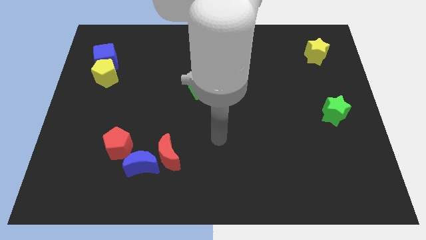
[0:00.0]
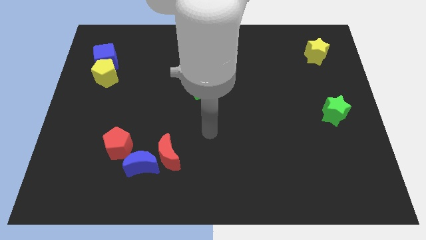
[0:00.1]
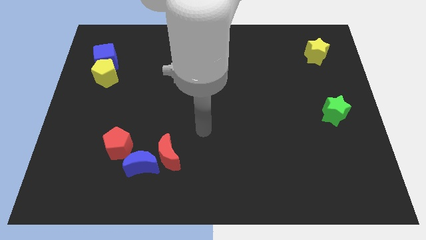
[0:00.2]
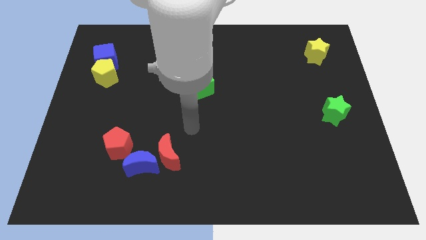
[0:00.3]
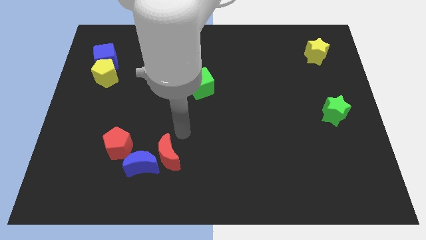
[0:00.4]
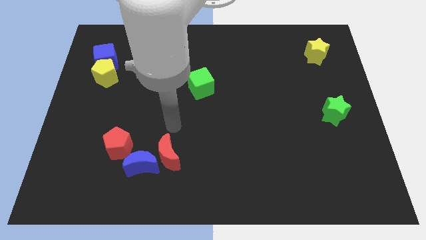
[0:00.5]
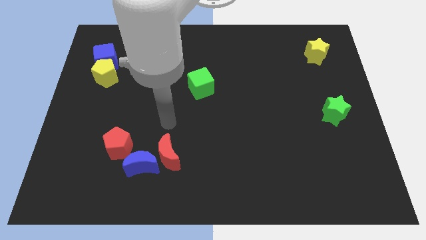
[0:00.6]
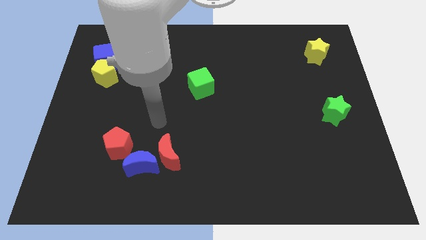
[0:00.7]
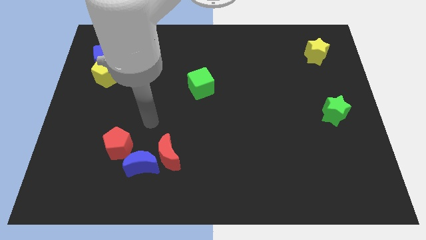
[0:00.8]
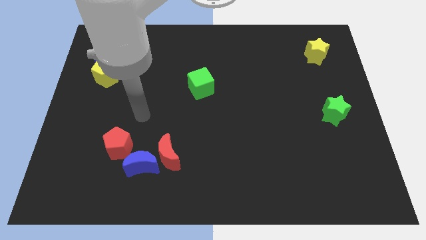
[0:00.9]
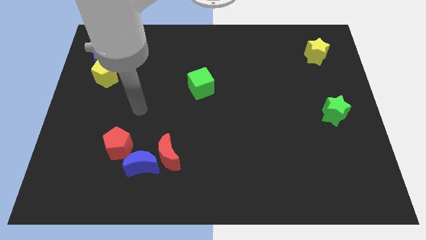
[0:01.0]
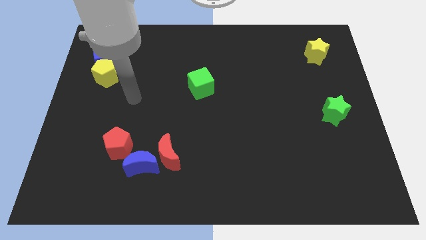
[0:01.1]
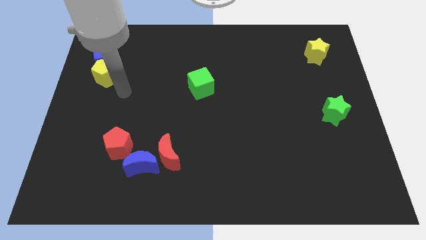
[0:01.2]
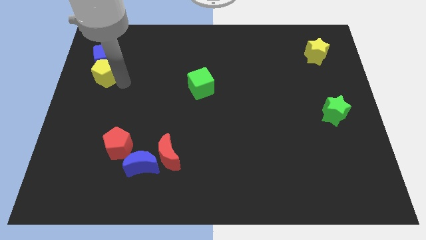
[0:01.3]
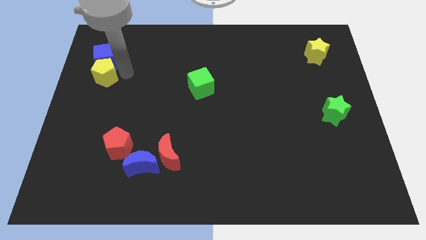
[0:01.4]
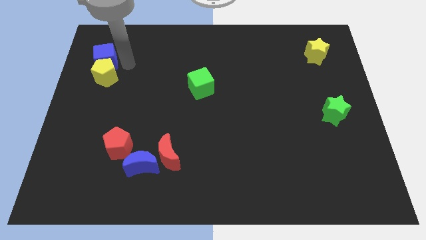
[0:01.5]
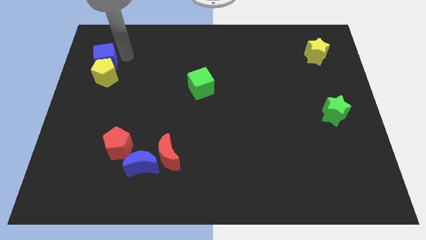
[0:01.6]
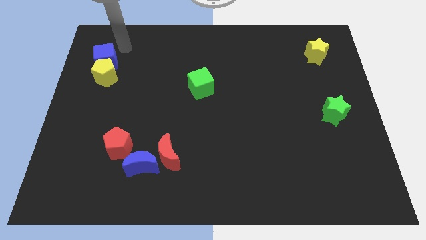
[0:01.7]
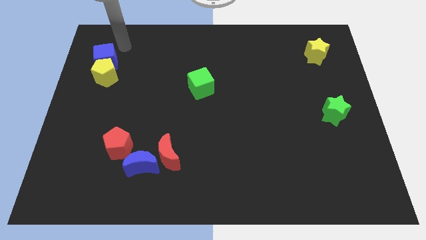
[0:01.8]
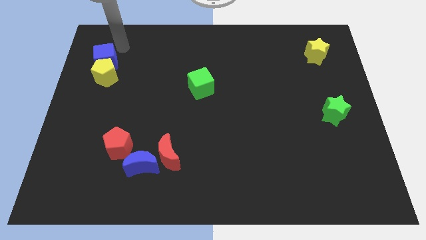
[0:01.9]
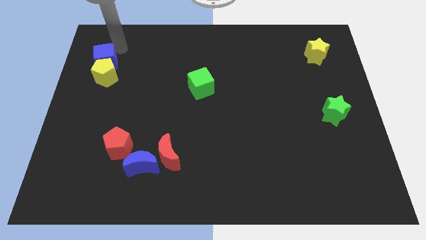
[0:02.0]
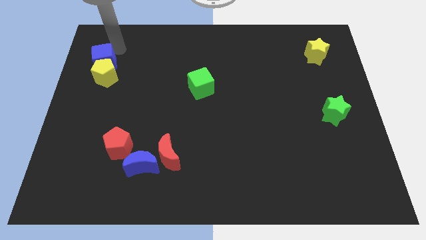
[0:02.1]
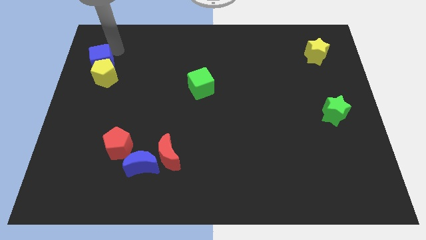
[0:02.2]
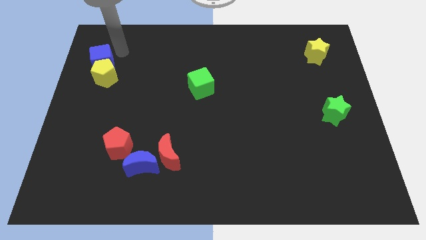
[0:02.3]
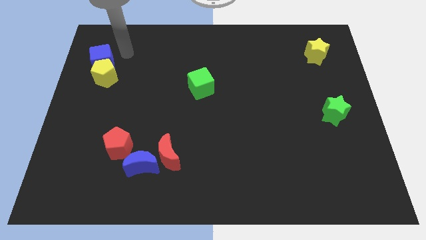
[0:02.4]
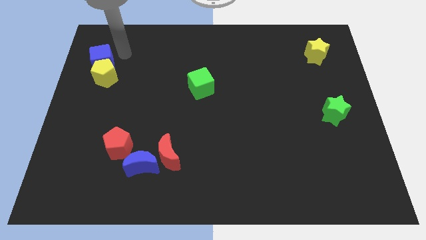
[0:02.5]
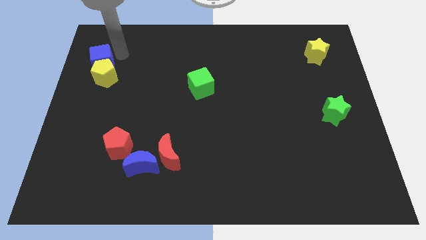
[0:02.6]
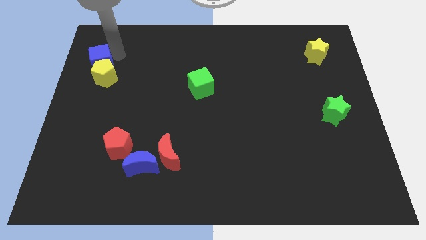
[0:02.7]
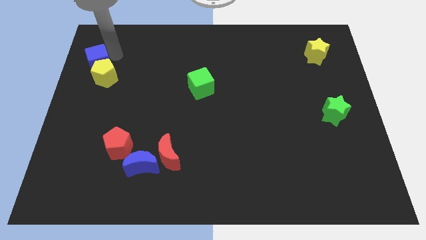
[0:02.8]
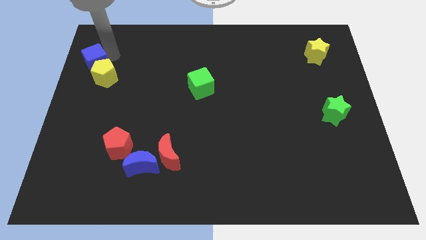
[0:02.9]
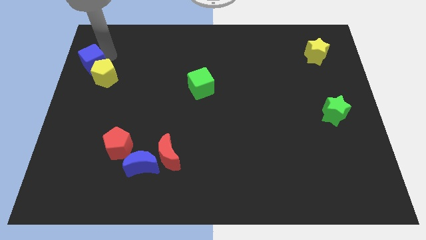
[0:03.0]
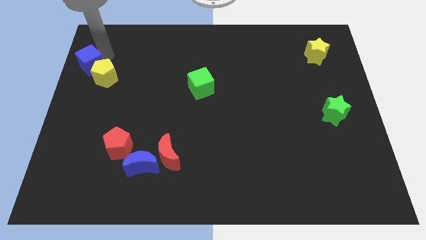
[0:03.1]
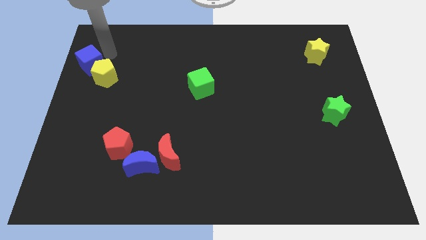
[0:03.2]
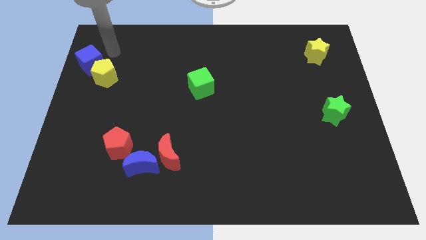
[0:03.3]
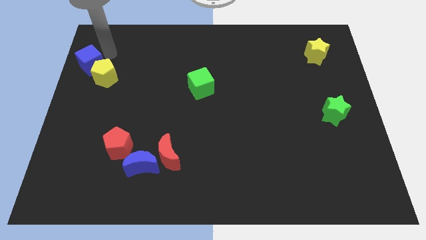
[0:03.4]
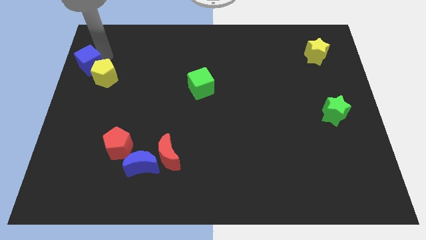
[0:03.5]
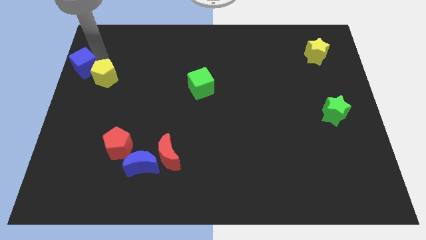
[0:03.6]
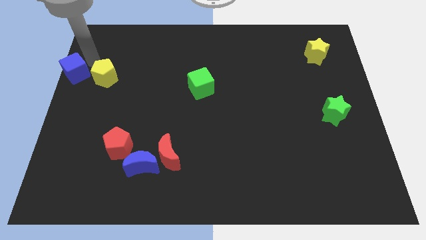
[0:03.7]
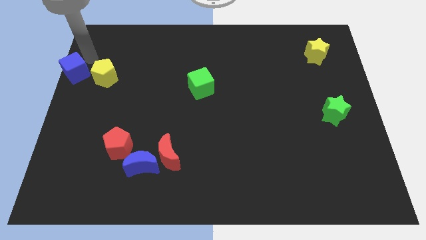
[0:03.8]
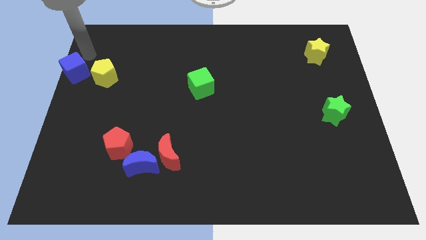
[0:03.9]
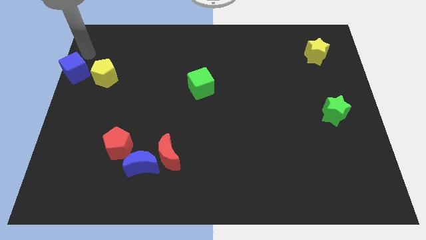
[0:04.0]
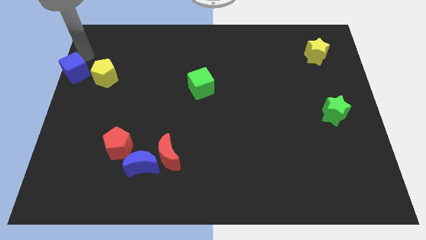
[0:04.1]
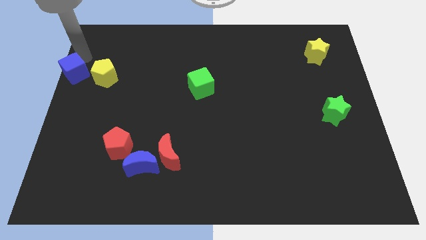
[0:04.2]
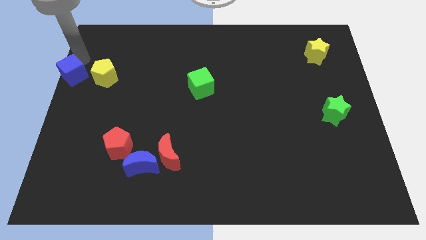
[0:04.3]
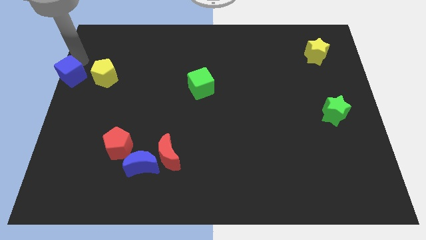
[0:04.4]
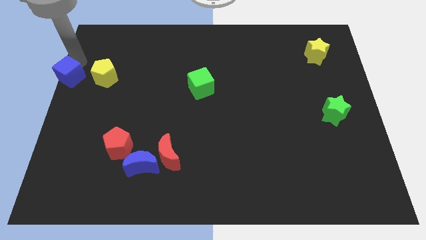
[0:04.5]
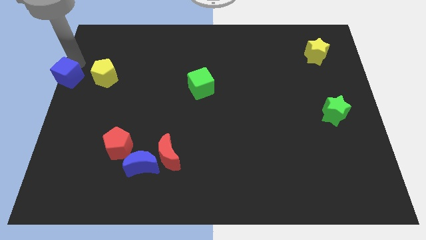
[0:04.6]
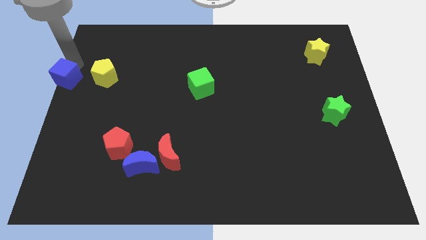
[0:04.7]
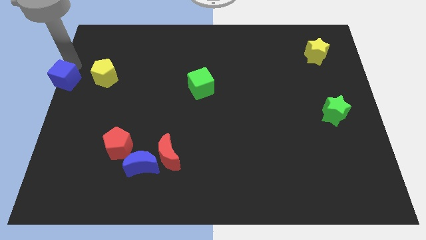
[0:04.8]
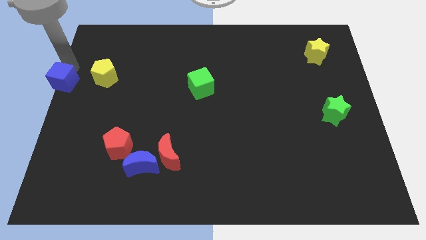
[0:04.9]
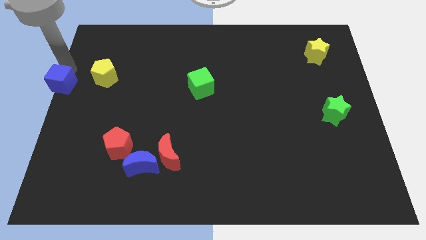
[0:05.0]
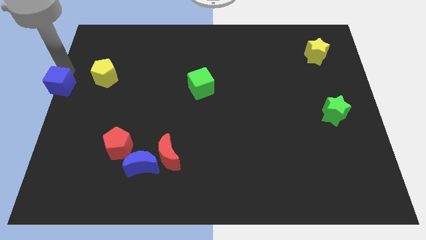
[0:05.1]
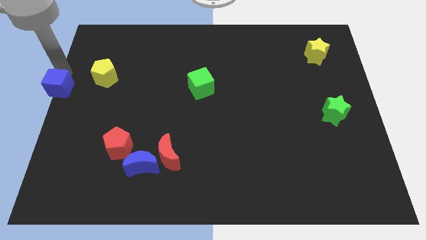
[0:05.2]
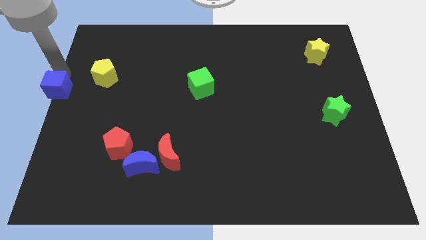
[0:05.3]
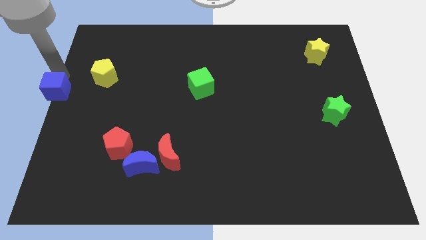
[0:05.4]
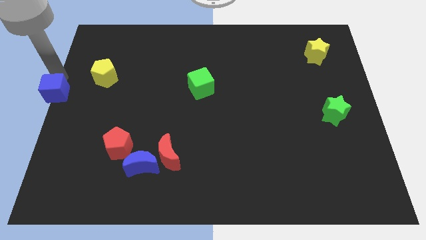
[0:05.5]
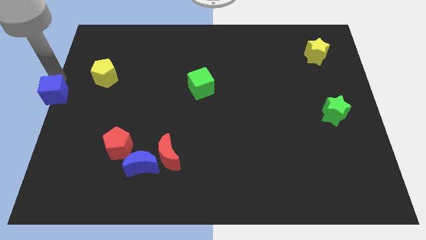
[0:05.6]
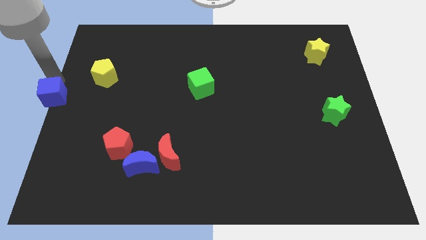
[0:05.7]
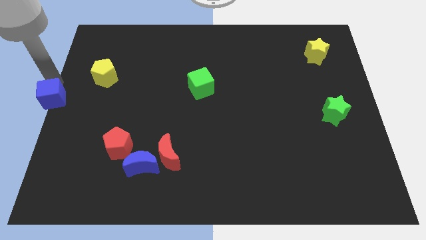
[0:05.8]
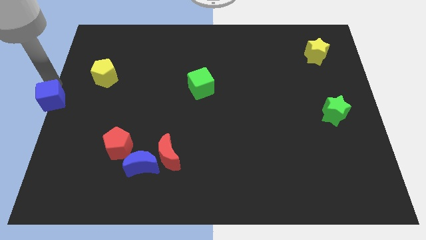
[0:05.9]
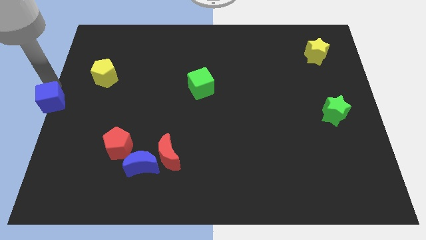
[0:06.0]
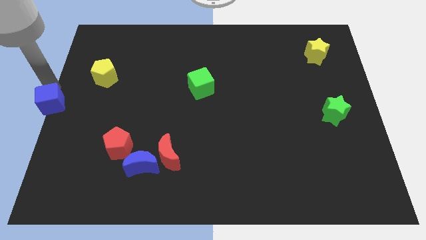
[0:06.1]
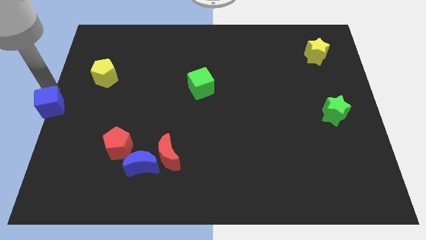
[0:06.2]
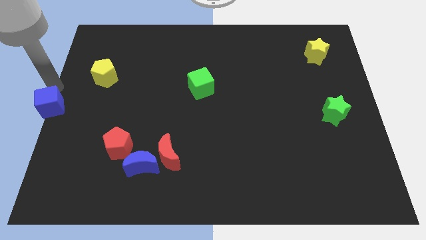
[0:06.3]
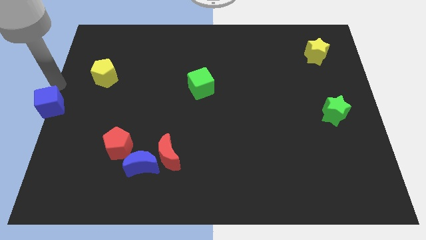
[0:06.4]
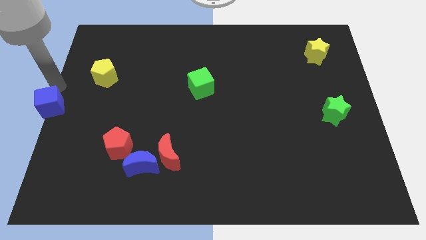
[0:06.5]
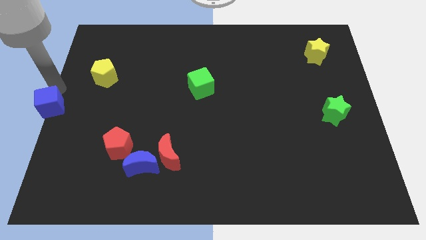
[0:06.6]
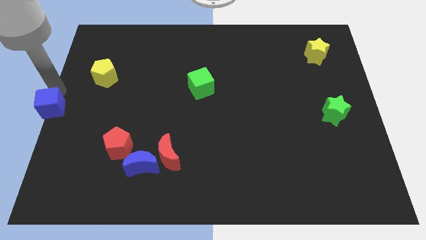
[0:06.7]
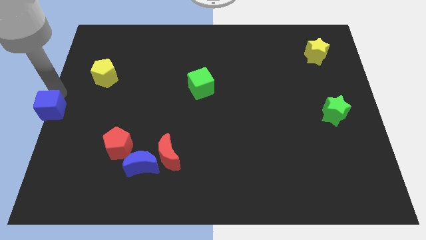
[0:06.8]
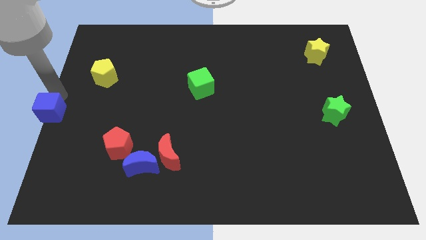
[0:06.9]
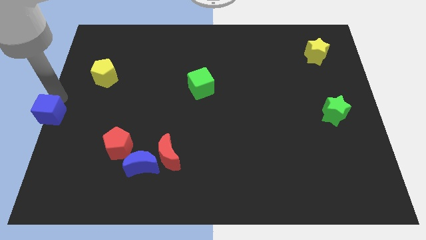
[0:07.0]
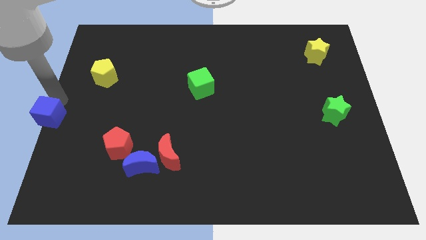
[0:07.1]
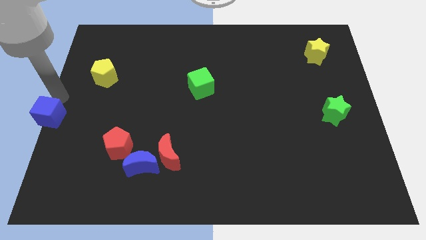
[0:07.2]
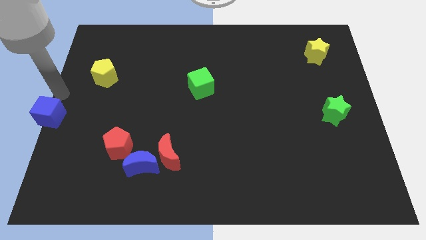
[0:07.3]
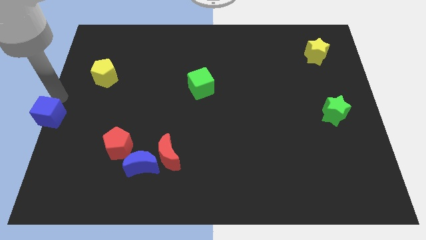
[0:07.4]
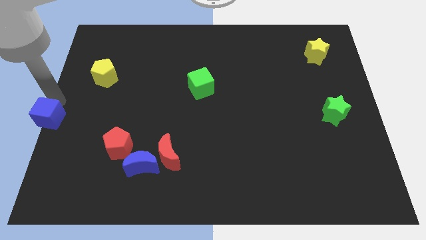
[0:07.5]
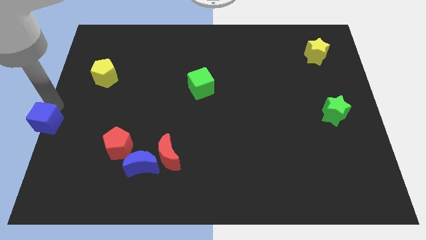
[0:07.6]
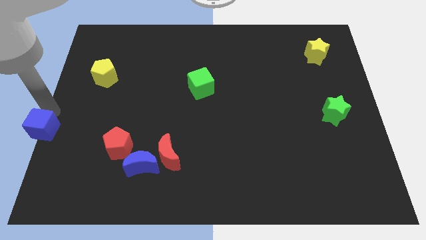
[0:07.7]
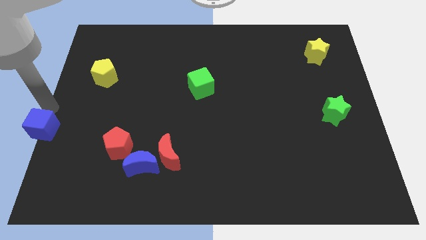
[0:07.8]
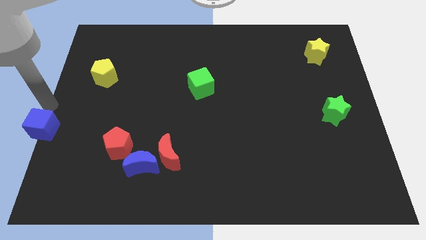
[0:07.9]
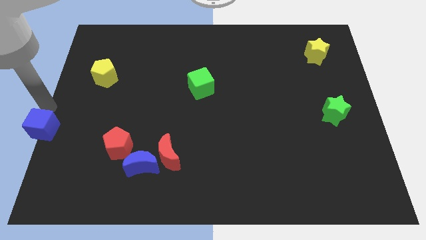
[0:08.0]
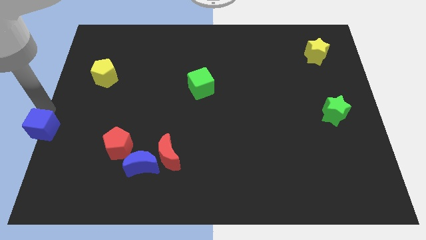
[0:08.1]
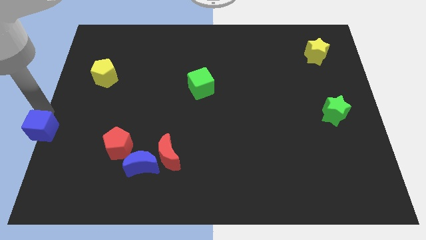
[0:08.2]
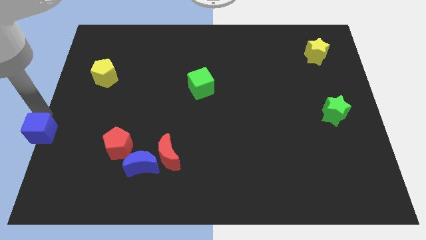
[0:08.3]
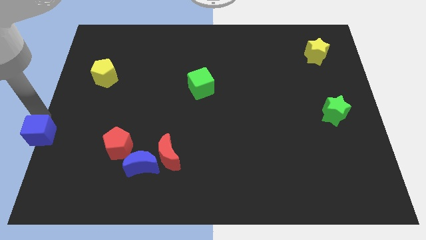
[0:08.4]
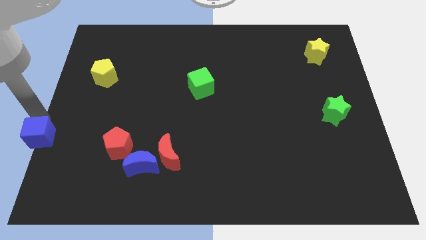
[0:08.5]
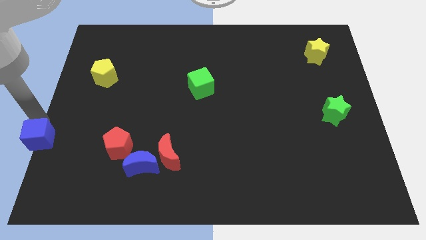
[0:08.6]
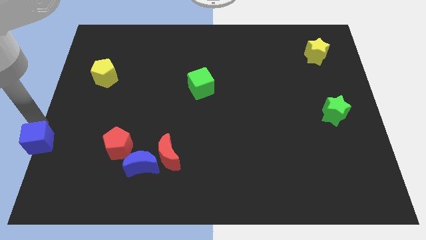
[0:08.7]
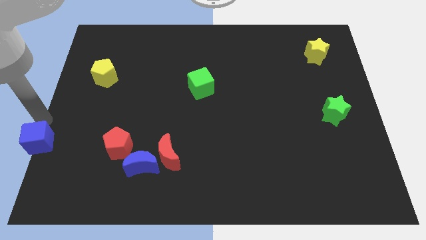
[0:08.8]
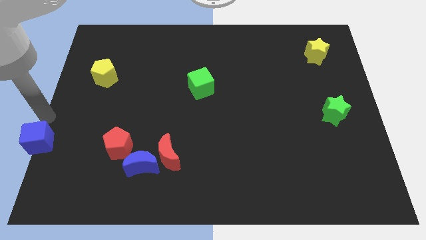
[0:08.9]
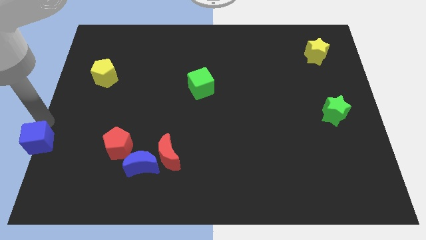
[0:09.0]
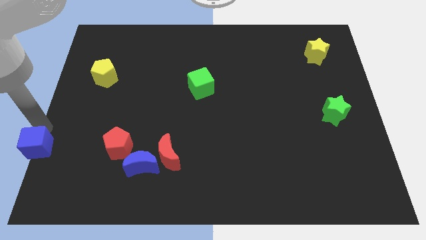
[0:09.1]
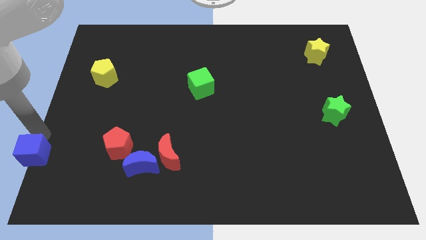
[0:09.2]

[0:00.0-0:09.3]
push the blue cube to the bottom left
